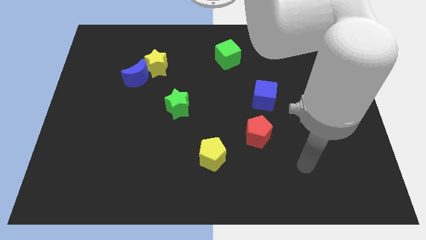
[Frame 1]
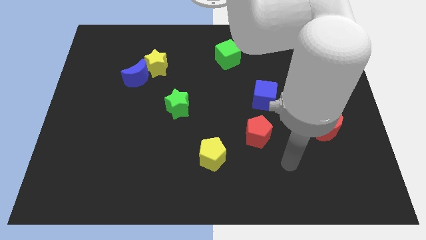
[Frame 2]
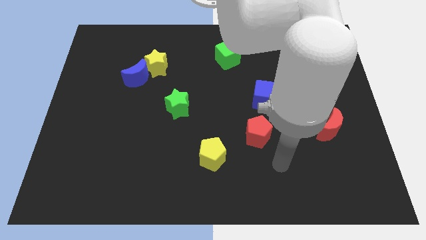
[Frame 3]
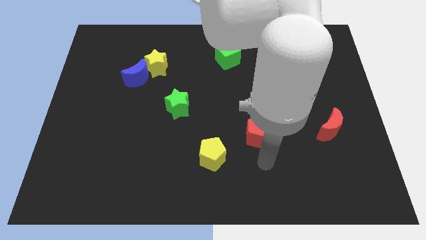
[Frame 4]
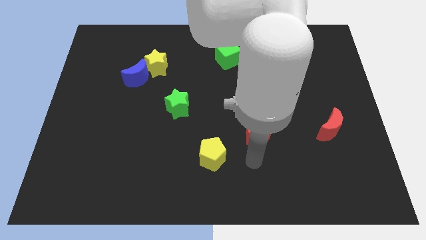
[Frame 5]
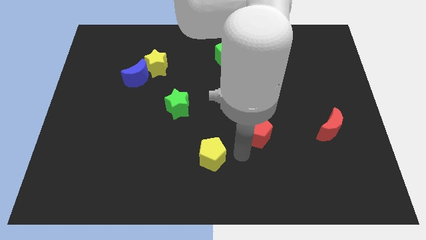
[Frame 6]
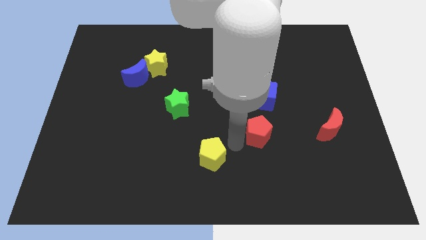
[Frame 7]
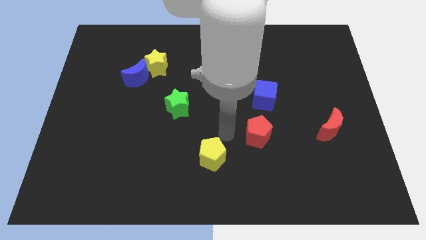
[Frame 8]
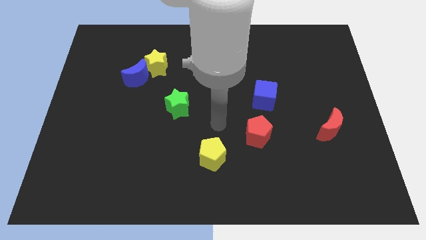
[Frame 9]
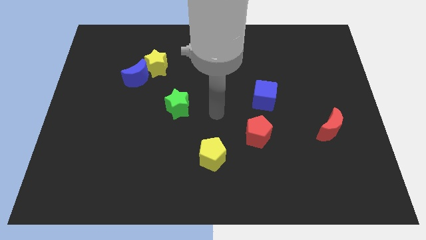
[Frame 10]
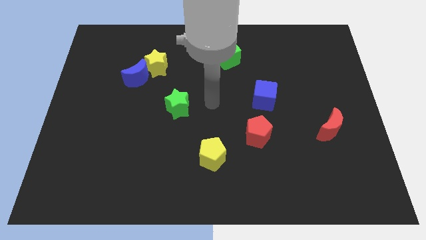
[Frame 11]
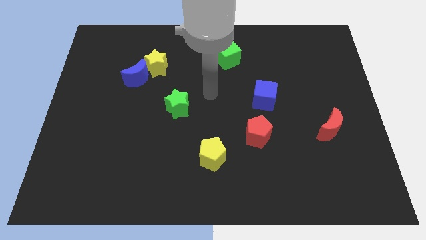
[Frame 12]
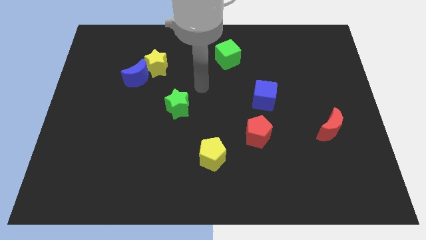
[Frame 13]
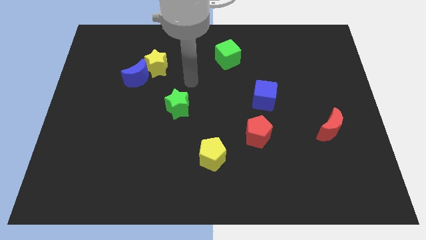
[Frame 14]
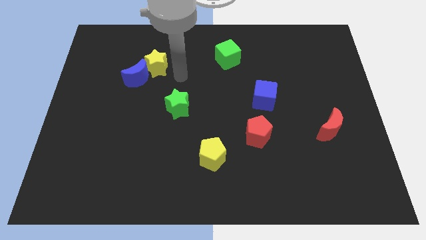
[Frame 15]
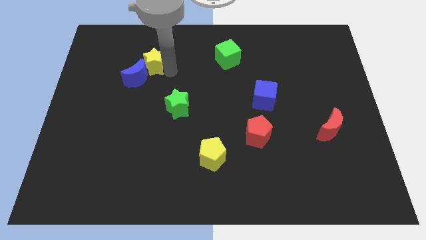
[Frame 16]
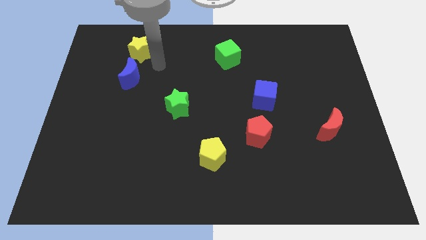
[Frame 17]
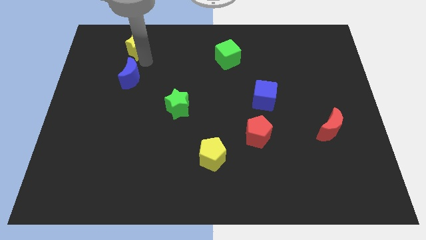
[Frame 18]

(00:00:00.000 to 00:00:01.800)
move the blue moon away from the yellow star

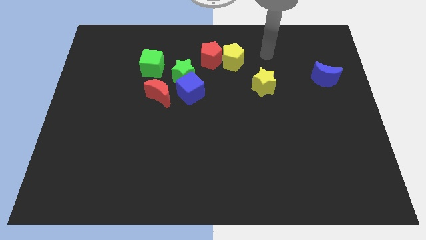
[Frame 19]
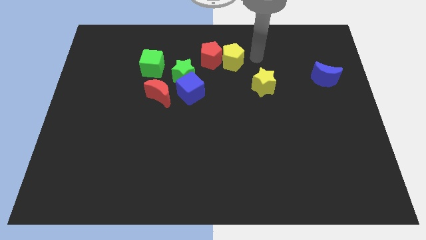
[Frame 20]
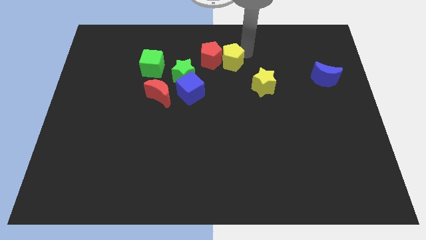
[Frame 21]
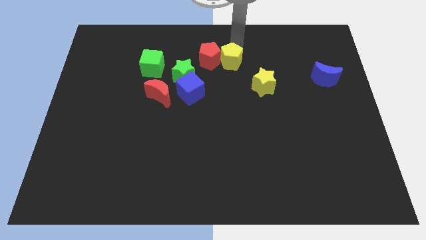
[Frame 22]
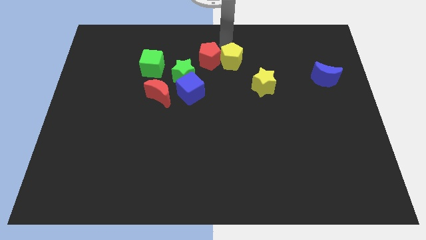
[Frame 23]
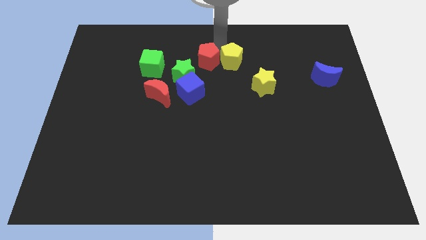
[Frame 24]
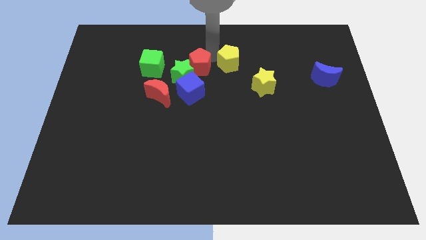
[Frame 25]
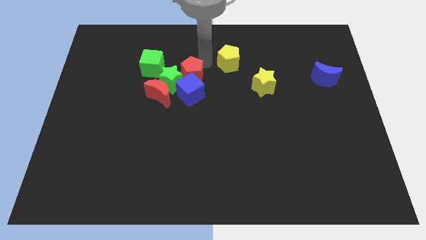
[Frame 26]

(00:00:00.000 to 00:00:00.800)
pull the yellow pentagon apart from the red pentagon

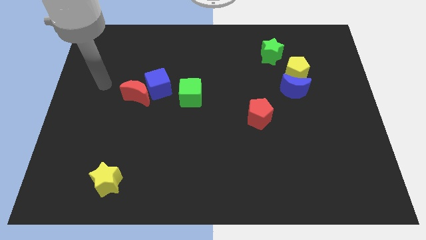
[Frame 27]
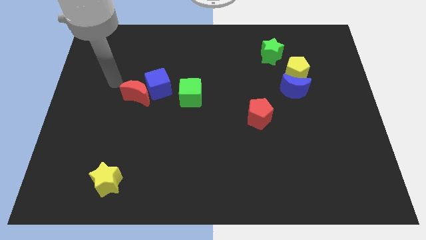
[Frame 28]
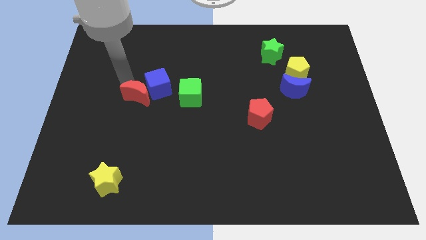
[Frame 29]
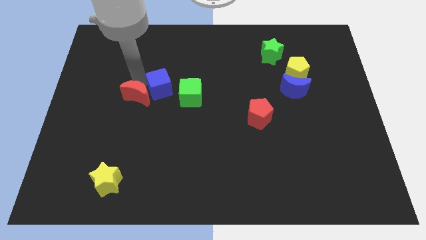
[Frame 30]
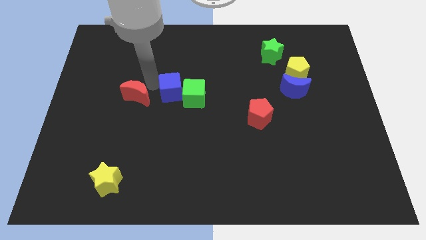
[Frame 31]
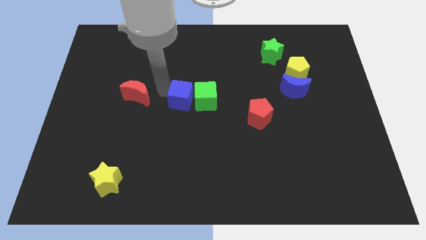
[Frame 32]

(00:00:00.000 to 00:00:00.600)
separate the red moon from the blue cube

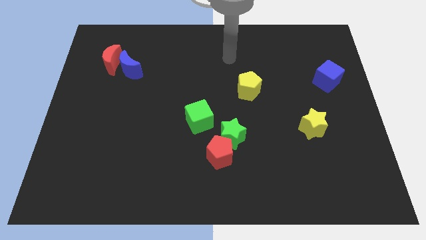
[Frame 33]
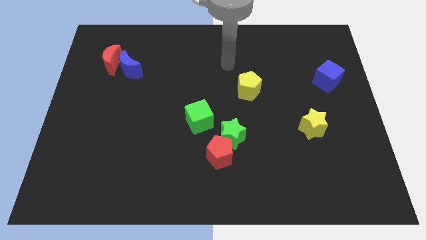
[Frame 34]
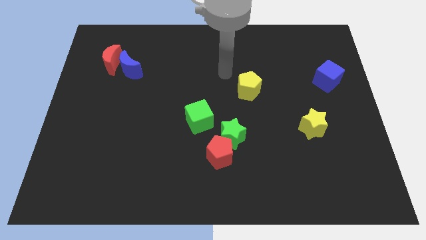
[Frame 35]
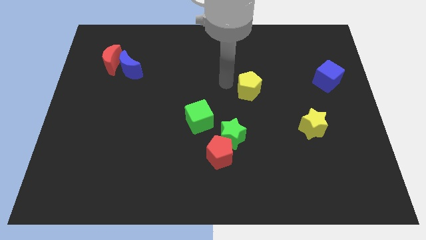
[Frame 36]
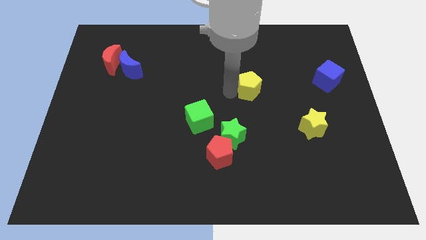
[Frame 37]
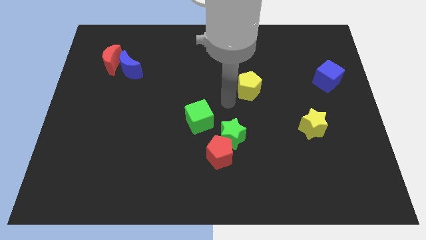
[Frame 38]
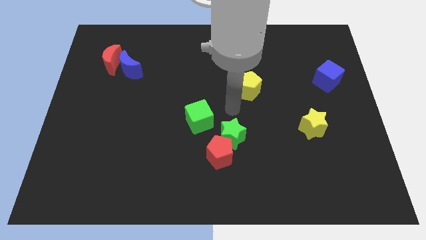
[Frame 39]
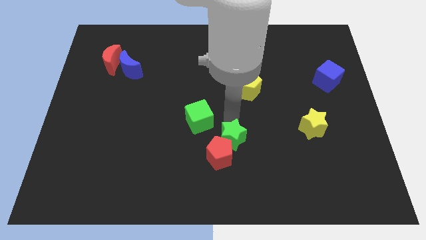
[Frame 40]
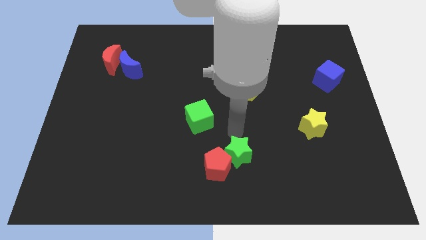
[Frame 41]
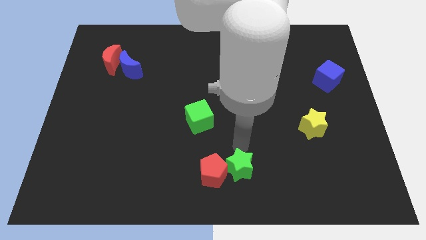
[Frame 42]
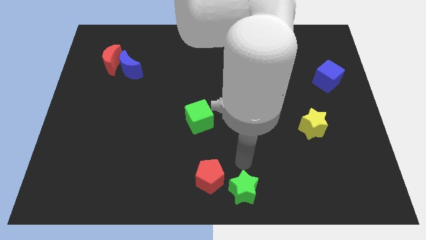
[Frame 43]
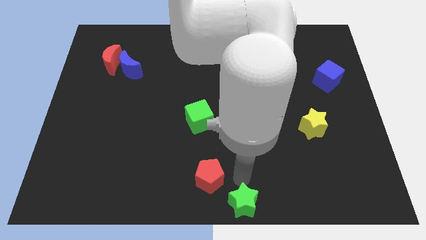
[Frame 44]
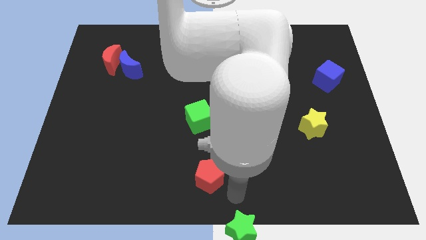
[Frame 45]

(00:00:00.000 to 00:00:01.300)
move the red pentagon away from the green star

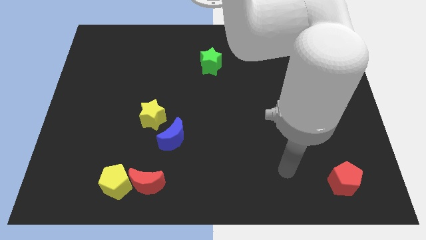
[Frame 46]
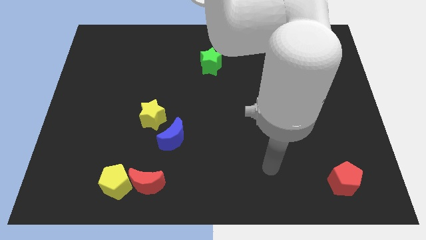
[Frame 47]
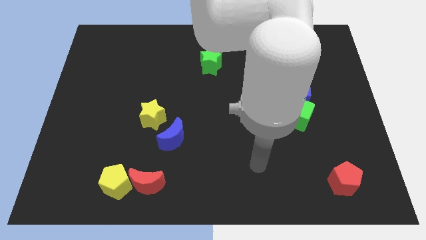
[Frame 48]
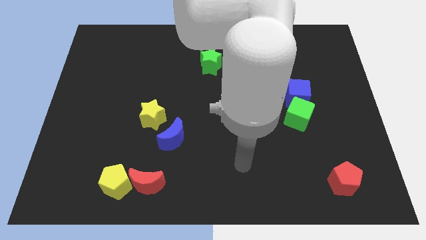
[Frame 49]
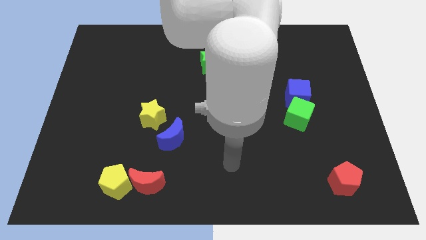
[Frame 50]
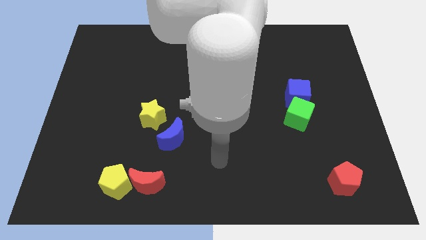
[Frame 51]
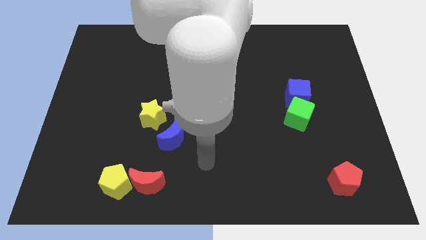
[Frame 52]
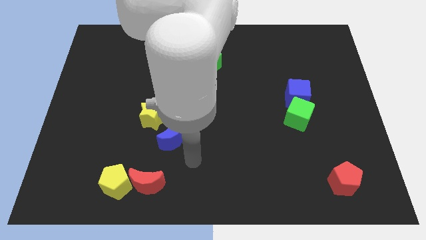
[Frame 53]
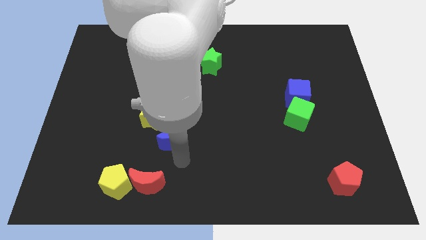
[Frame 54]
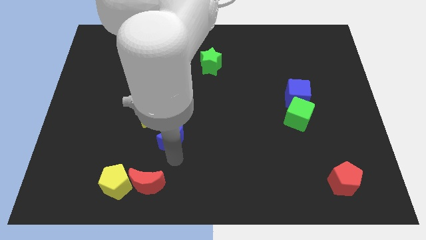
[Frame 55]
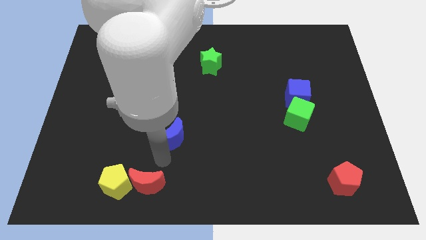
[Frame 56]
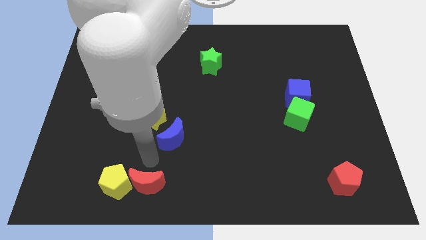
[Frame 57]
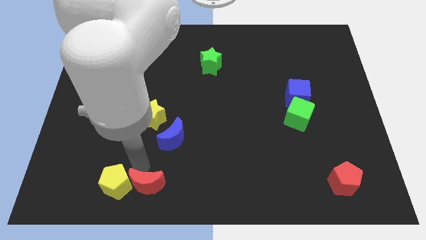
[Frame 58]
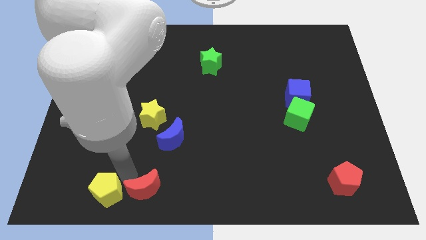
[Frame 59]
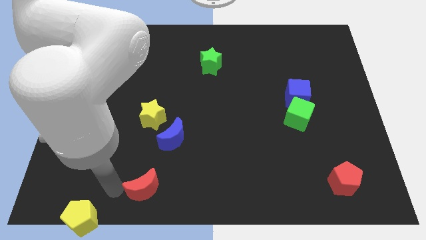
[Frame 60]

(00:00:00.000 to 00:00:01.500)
separate the red moon from the yellow pentagon

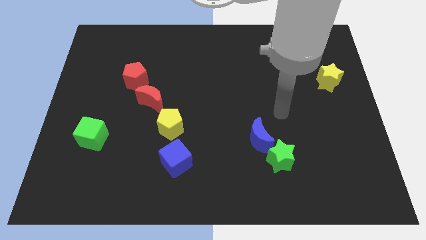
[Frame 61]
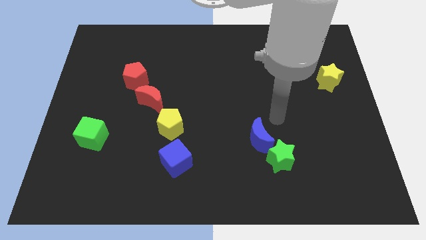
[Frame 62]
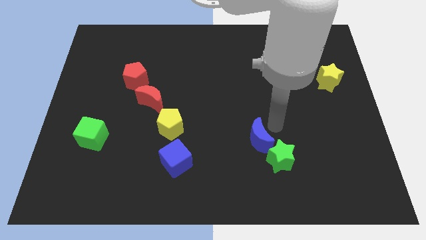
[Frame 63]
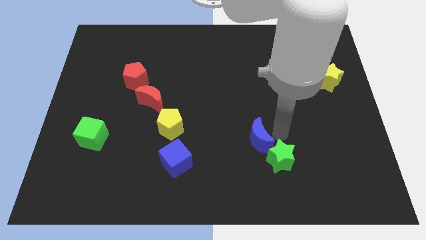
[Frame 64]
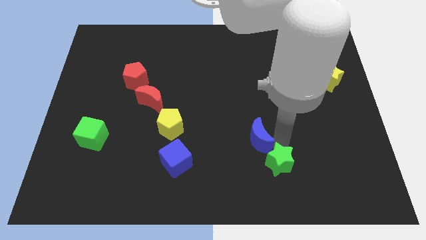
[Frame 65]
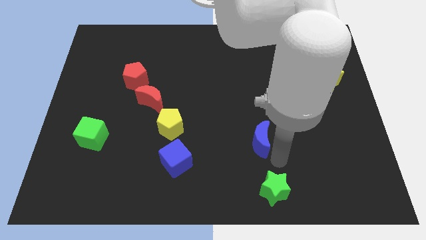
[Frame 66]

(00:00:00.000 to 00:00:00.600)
separate the blue moon from the green star

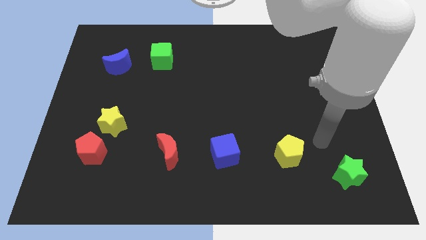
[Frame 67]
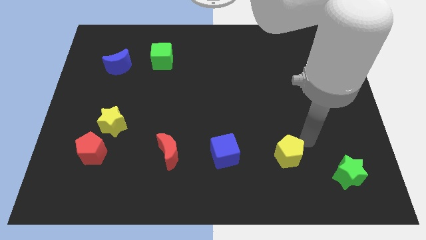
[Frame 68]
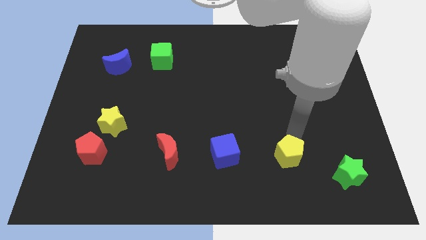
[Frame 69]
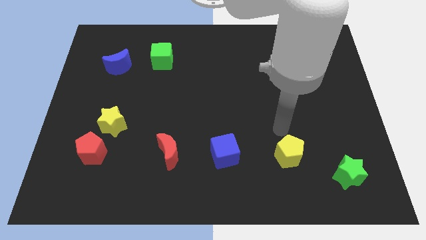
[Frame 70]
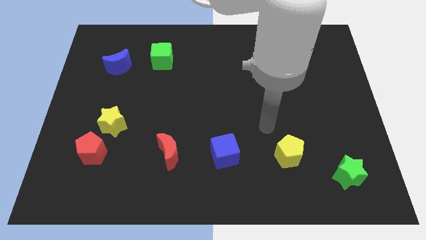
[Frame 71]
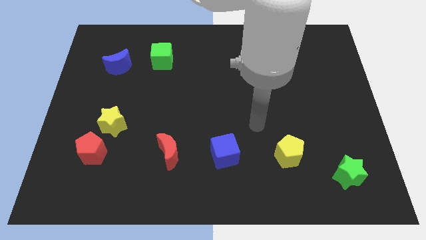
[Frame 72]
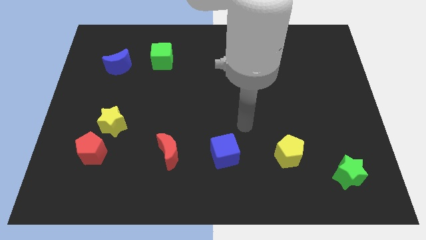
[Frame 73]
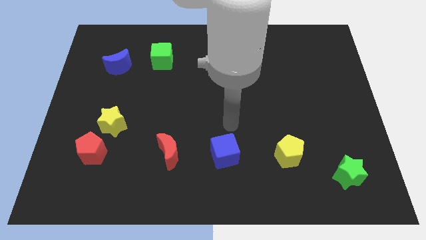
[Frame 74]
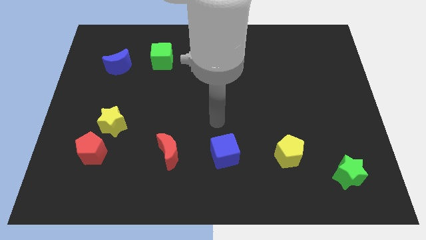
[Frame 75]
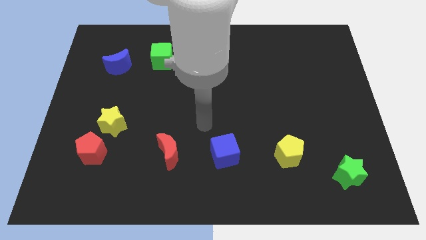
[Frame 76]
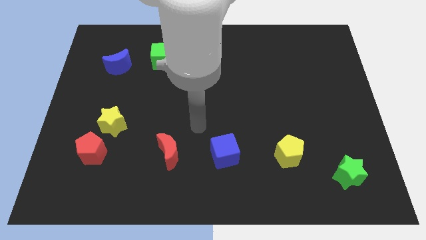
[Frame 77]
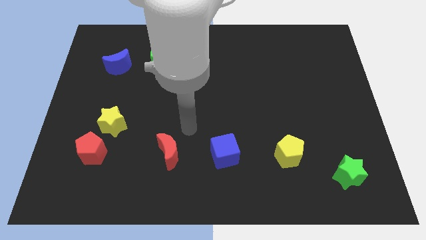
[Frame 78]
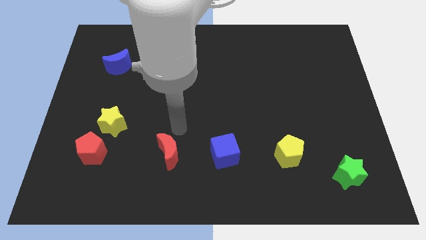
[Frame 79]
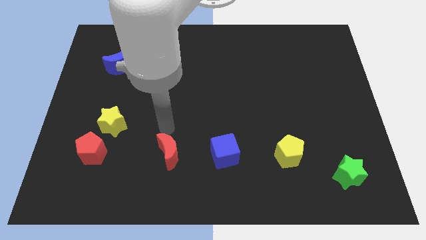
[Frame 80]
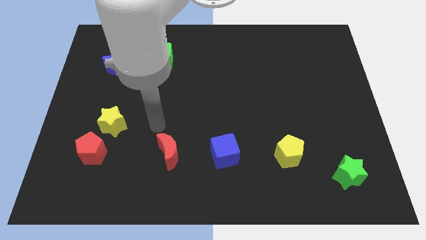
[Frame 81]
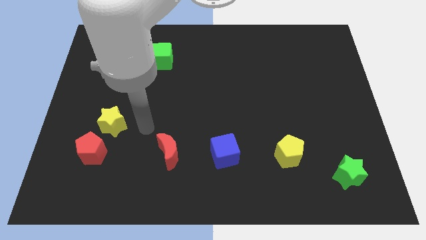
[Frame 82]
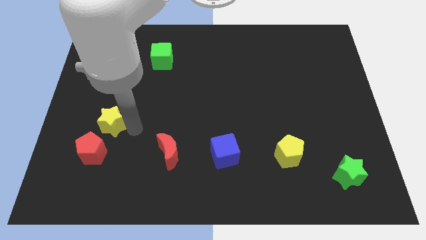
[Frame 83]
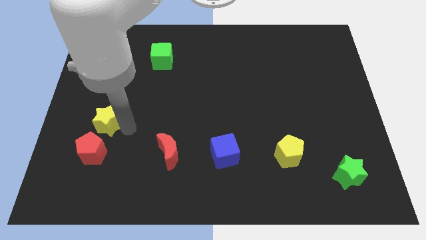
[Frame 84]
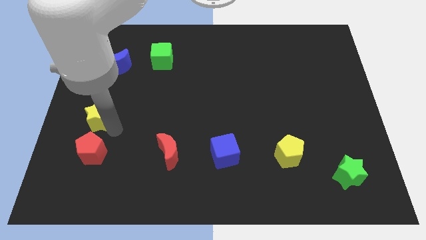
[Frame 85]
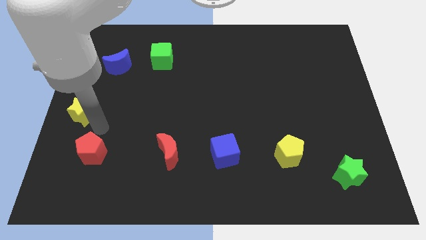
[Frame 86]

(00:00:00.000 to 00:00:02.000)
separate the red pentagon from the yellow star

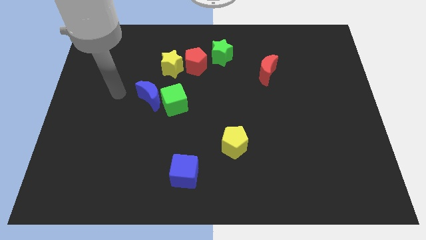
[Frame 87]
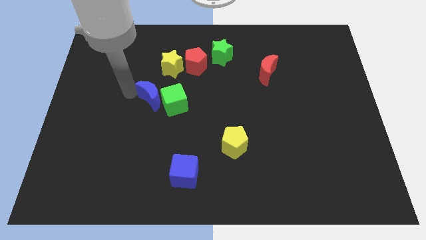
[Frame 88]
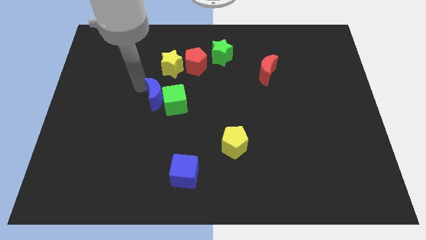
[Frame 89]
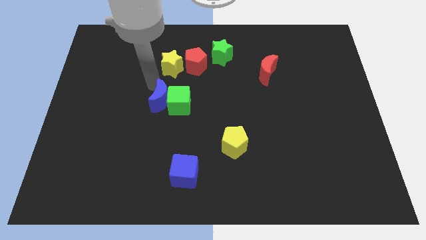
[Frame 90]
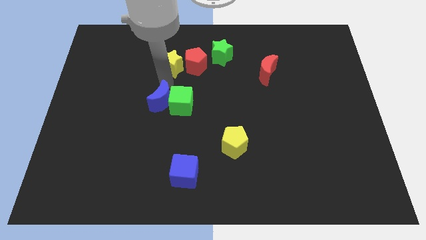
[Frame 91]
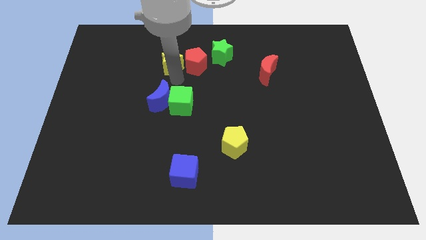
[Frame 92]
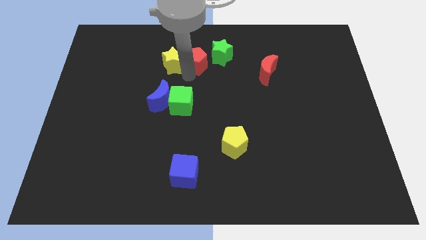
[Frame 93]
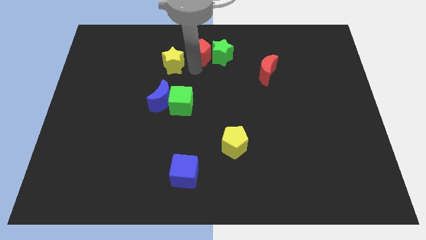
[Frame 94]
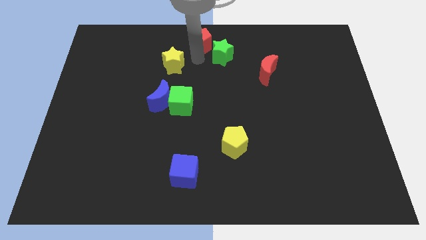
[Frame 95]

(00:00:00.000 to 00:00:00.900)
move the yellow star away from the red pentagon
